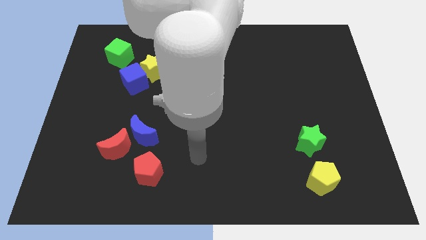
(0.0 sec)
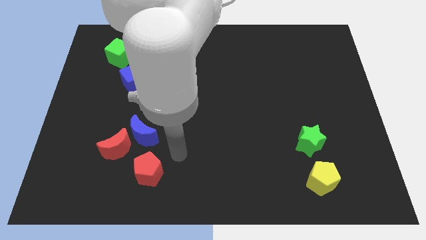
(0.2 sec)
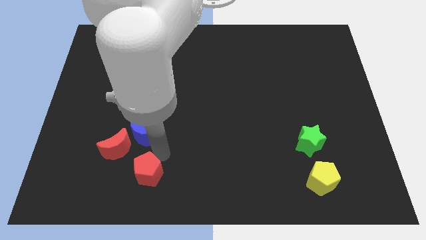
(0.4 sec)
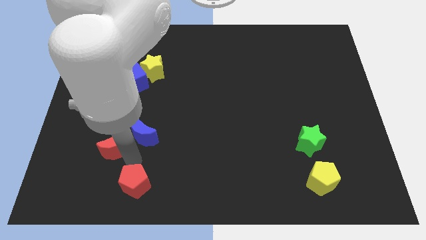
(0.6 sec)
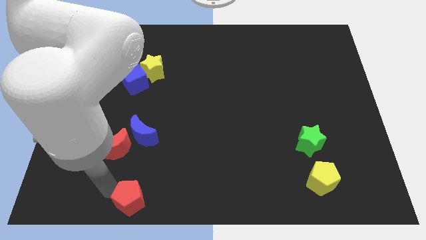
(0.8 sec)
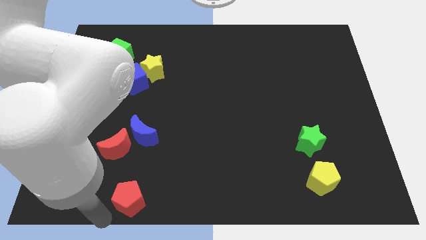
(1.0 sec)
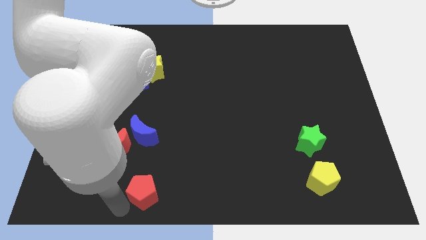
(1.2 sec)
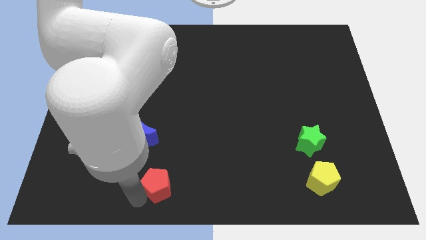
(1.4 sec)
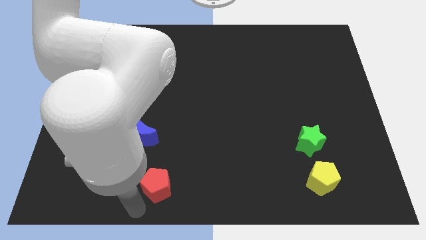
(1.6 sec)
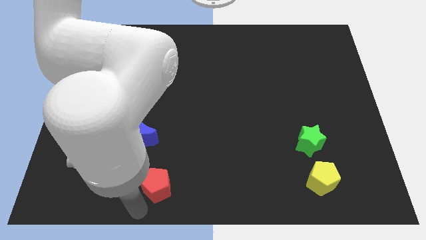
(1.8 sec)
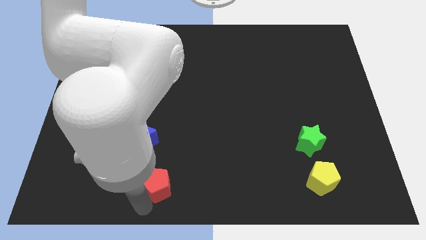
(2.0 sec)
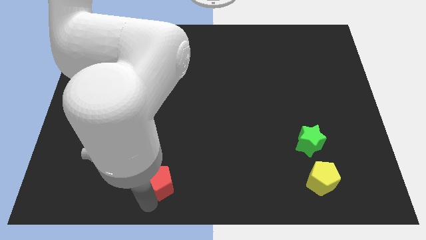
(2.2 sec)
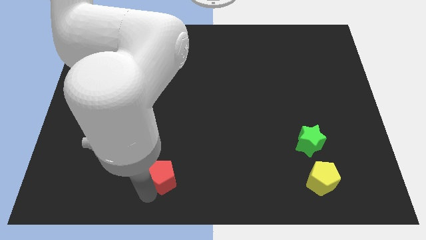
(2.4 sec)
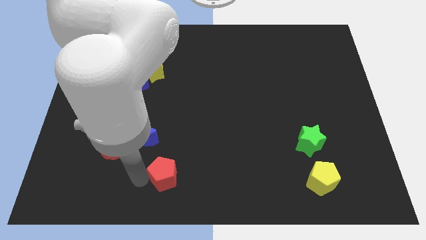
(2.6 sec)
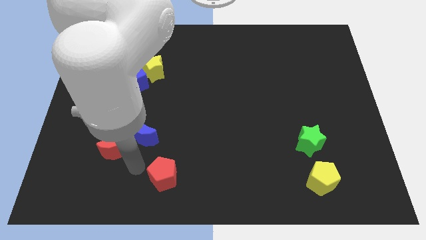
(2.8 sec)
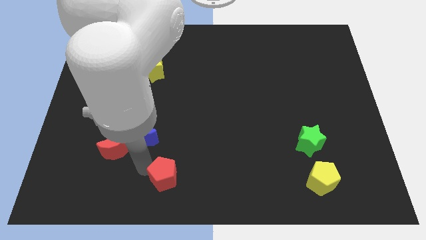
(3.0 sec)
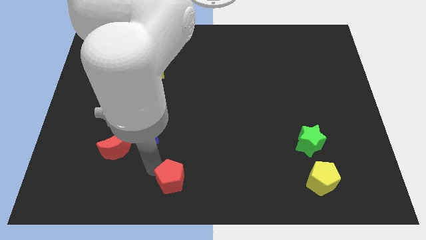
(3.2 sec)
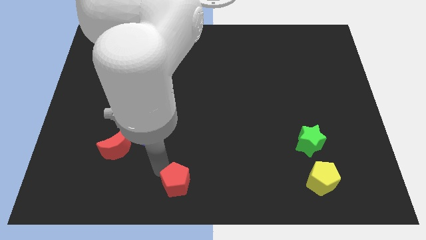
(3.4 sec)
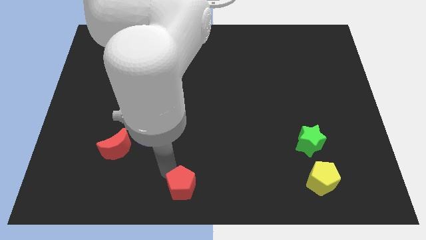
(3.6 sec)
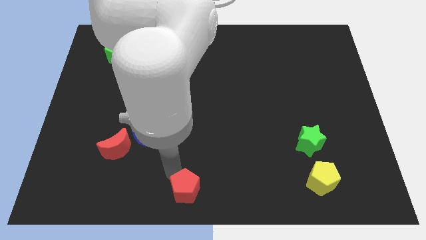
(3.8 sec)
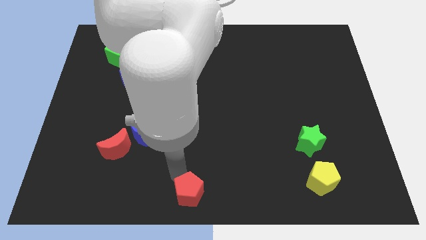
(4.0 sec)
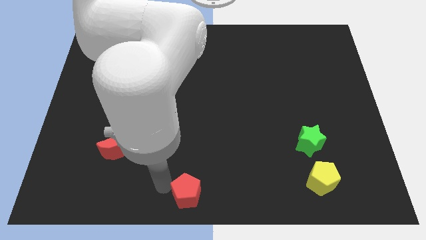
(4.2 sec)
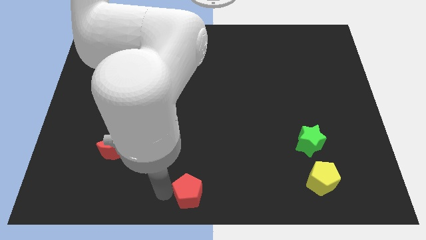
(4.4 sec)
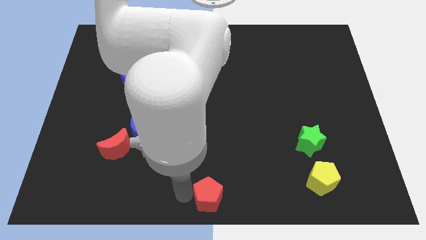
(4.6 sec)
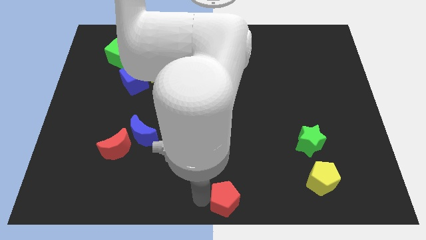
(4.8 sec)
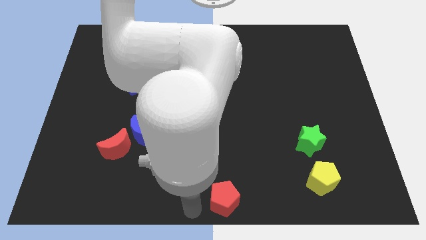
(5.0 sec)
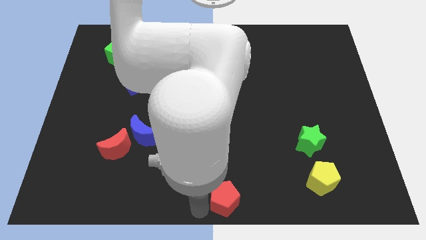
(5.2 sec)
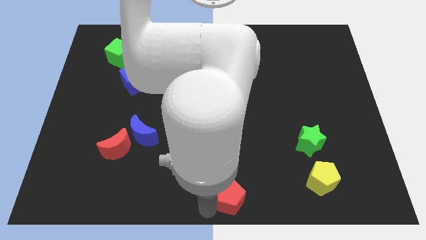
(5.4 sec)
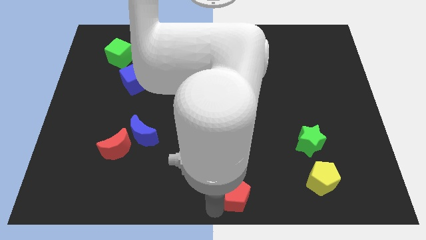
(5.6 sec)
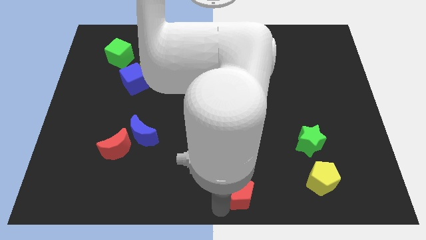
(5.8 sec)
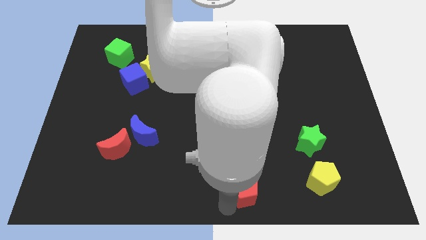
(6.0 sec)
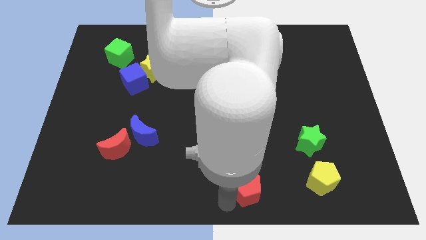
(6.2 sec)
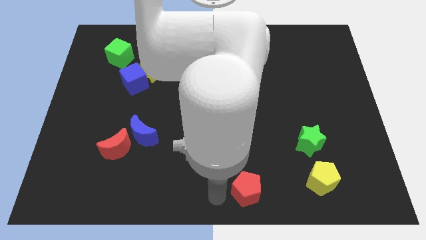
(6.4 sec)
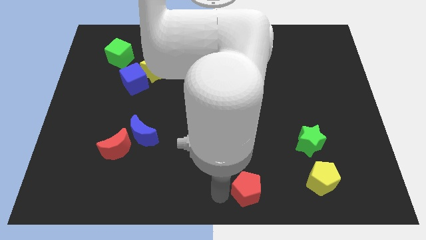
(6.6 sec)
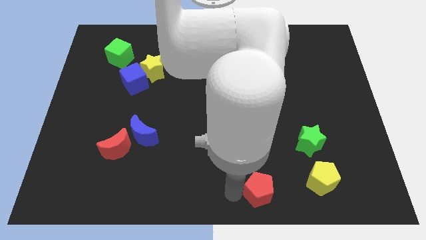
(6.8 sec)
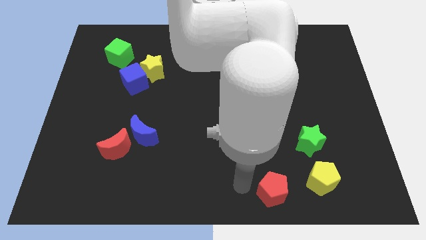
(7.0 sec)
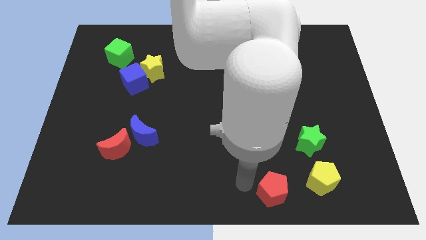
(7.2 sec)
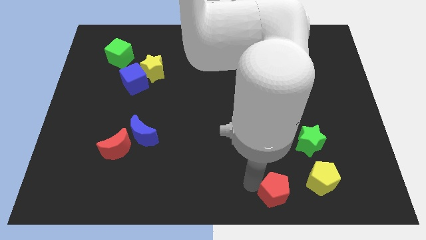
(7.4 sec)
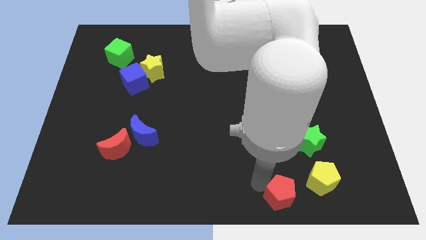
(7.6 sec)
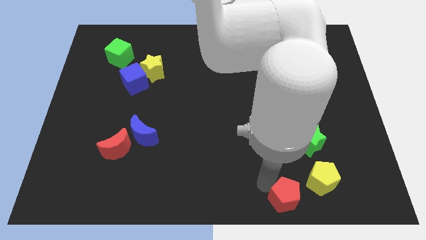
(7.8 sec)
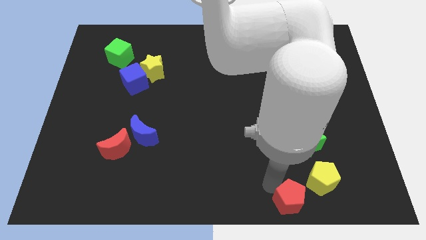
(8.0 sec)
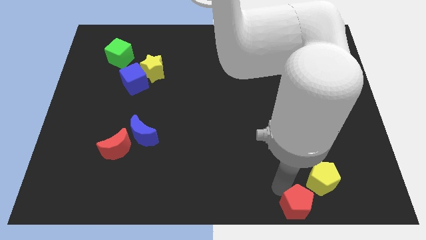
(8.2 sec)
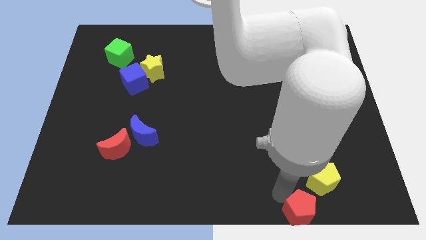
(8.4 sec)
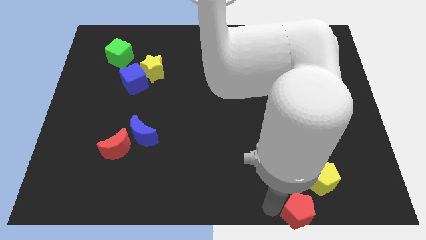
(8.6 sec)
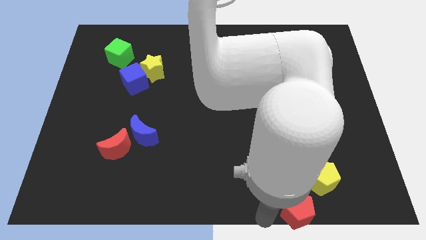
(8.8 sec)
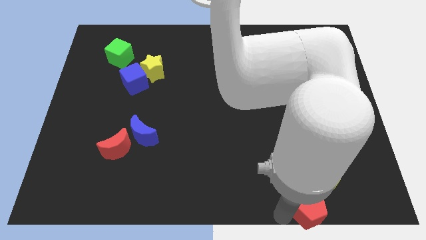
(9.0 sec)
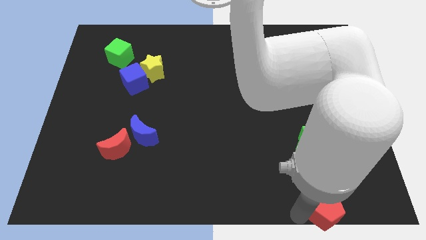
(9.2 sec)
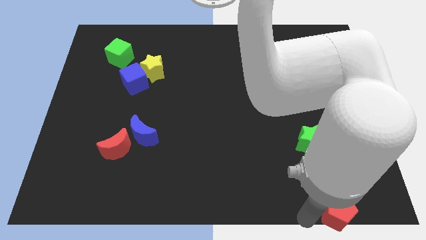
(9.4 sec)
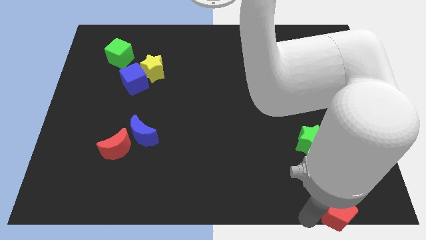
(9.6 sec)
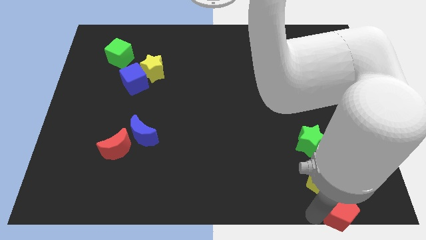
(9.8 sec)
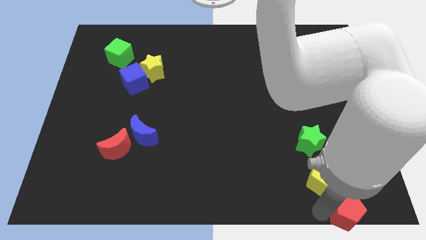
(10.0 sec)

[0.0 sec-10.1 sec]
put the red pentagon to the bottom right corner

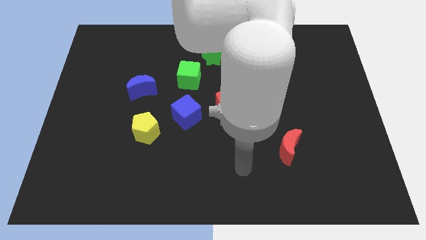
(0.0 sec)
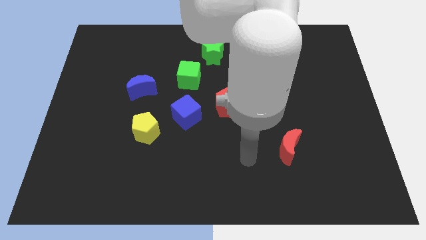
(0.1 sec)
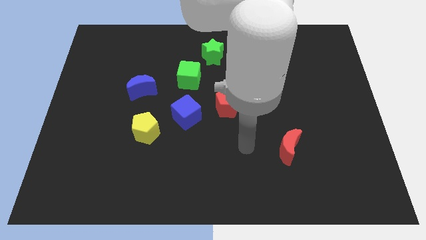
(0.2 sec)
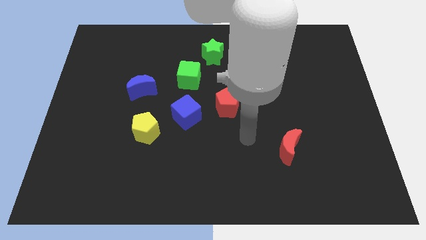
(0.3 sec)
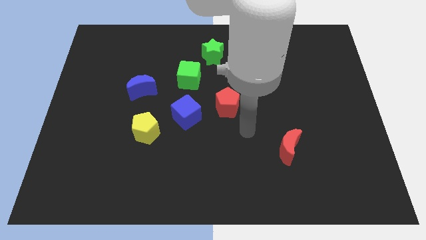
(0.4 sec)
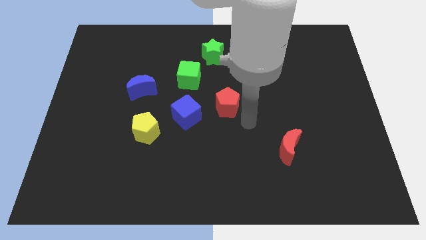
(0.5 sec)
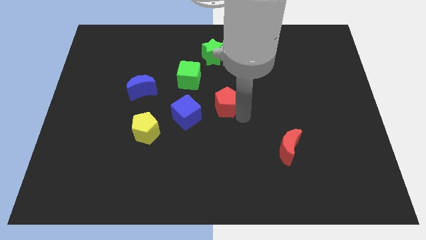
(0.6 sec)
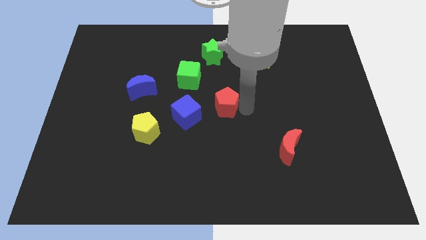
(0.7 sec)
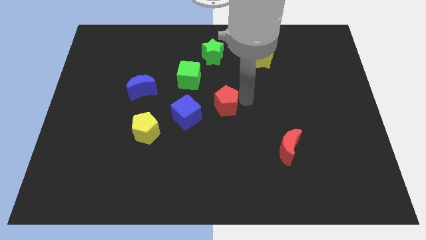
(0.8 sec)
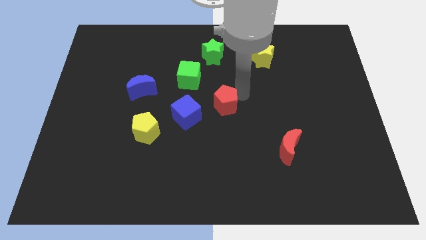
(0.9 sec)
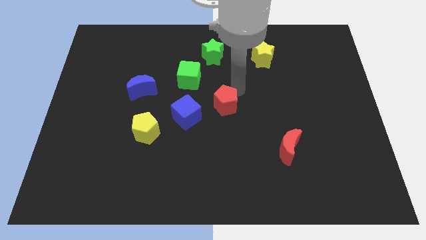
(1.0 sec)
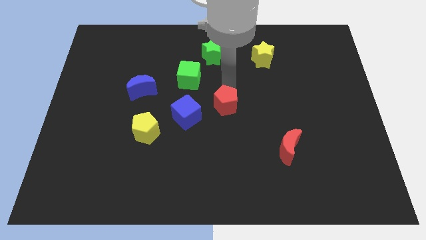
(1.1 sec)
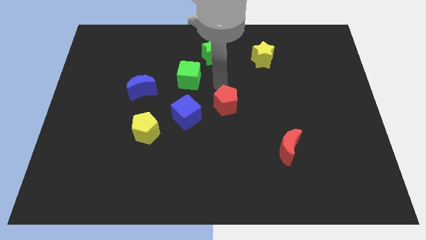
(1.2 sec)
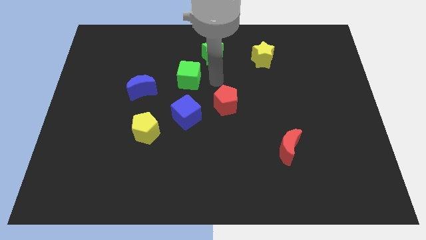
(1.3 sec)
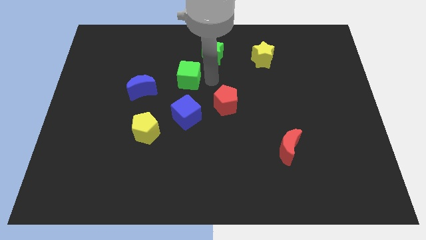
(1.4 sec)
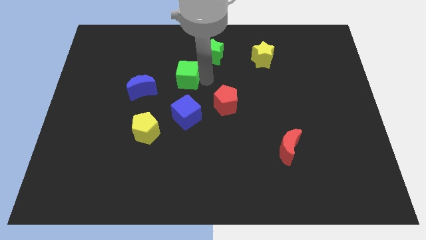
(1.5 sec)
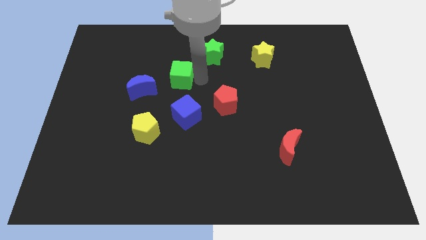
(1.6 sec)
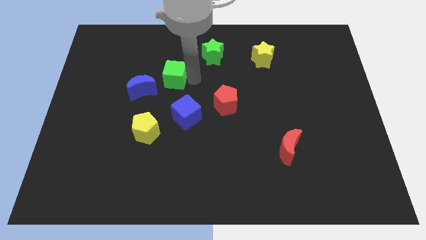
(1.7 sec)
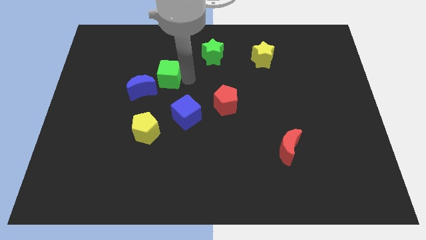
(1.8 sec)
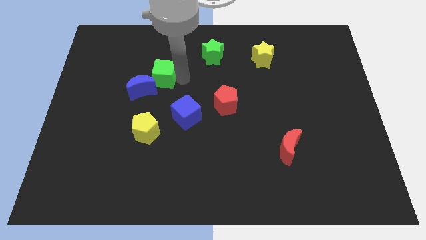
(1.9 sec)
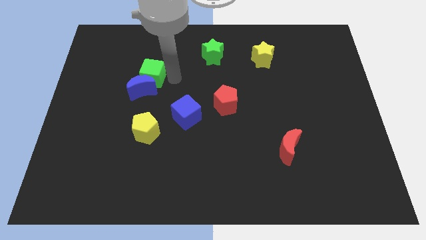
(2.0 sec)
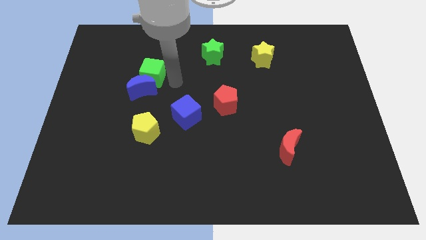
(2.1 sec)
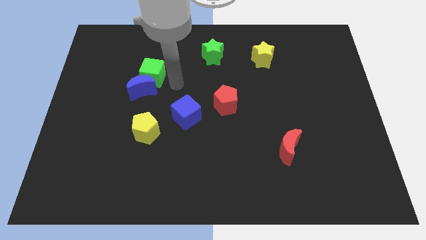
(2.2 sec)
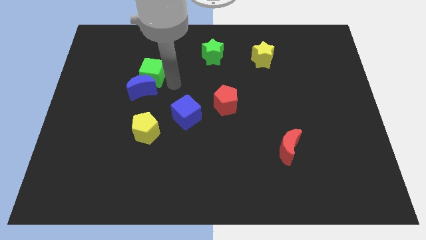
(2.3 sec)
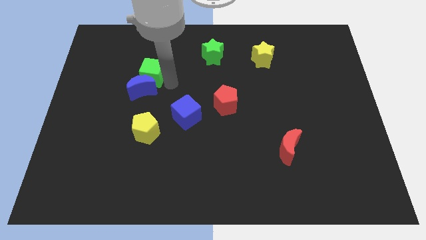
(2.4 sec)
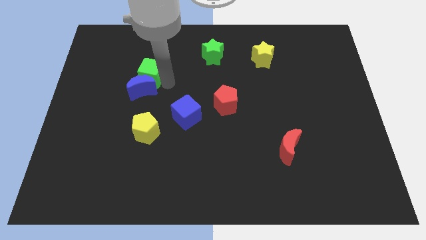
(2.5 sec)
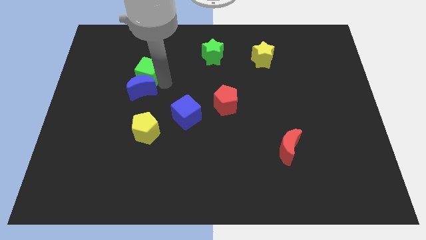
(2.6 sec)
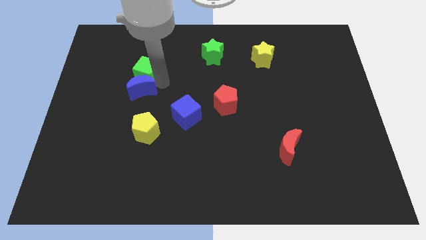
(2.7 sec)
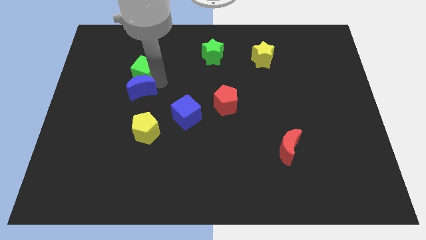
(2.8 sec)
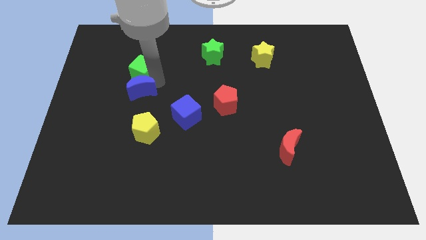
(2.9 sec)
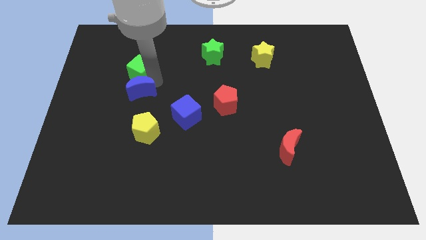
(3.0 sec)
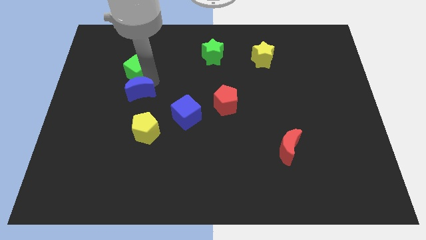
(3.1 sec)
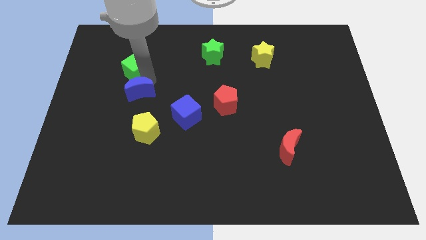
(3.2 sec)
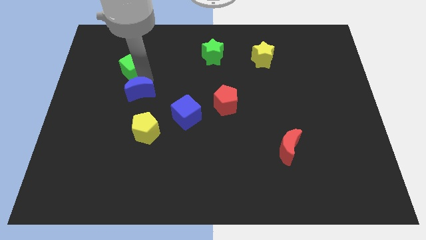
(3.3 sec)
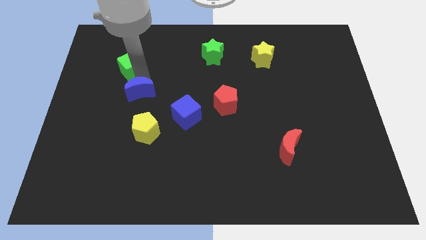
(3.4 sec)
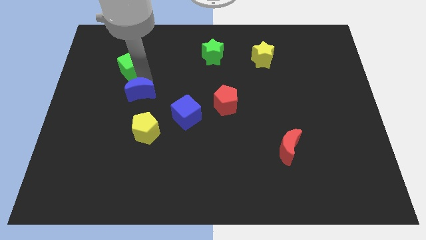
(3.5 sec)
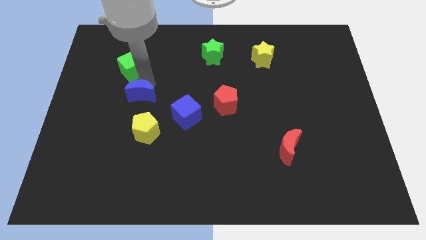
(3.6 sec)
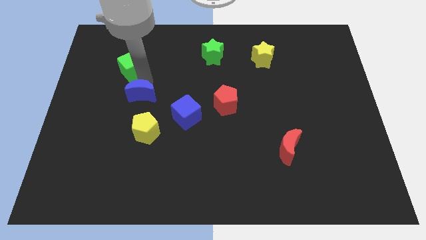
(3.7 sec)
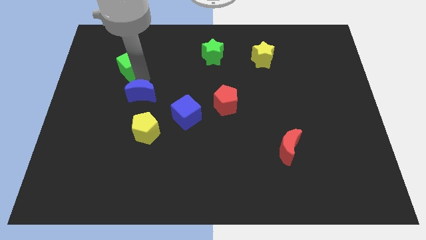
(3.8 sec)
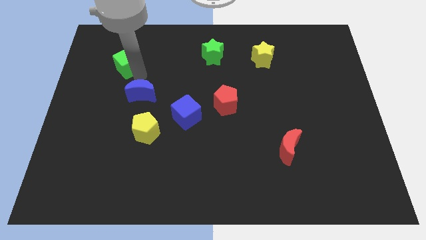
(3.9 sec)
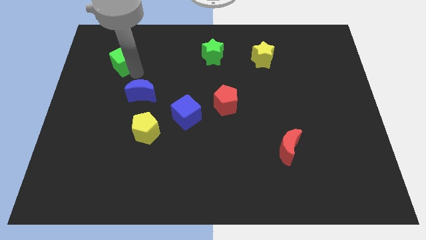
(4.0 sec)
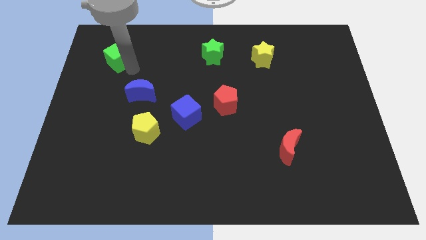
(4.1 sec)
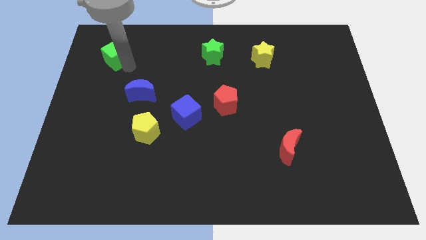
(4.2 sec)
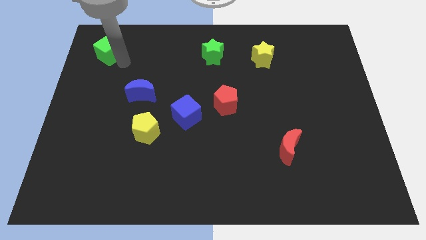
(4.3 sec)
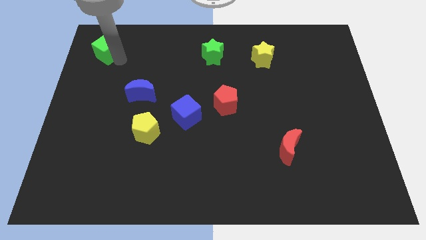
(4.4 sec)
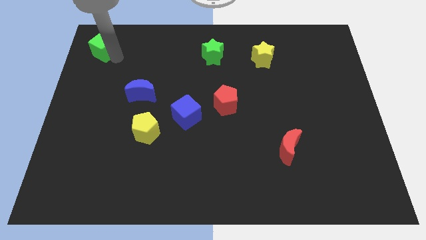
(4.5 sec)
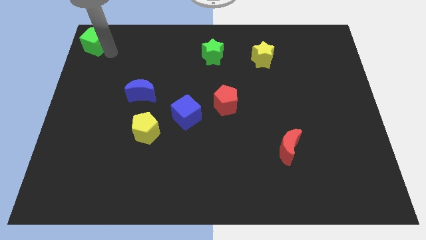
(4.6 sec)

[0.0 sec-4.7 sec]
slide the green cube to the upper left corner
